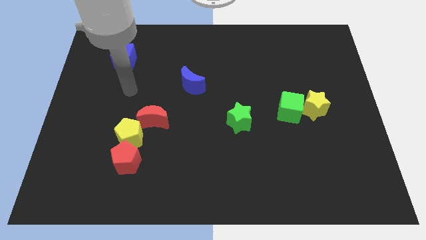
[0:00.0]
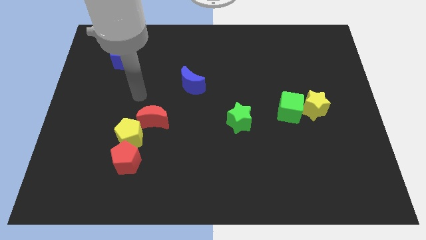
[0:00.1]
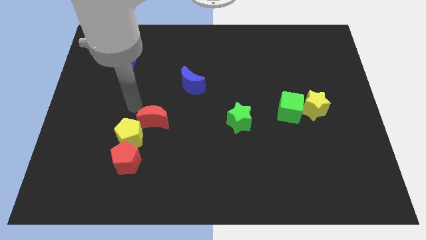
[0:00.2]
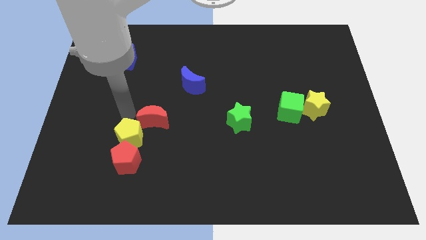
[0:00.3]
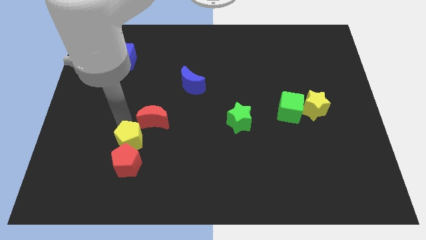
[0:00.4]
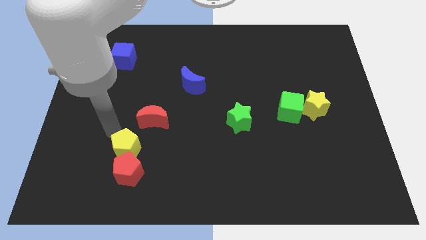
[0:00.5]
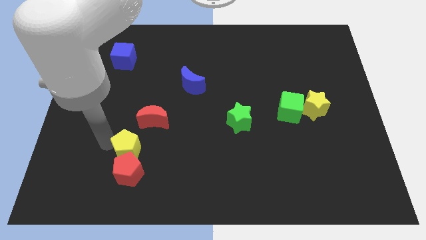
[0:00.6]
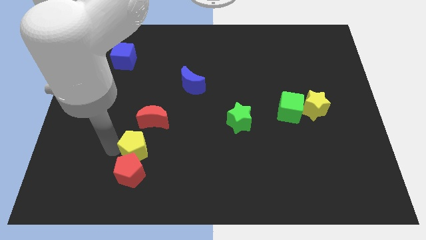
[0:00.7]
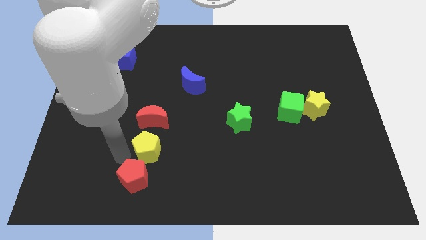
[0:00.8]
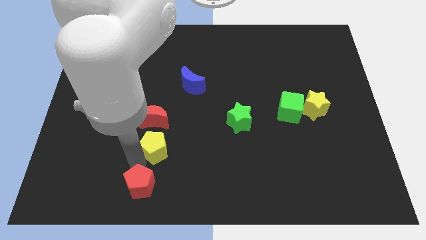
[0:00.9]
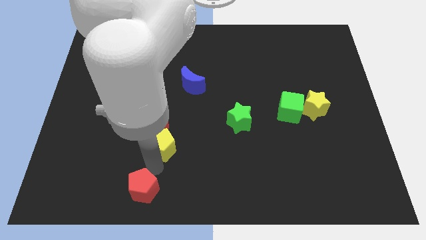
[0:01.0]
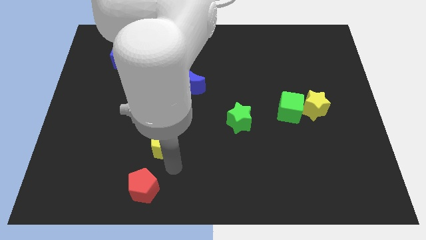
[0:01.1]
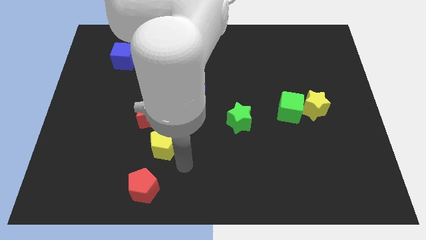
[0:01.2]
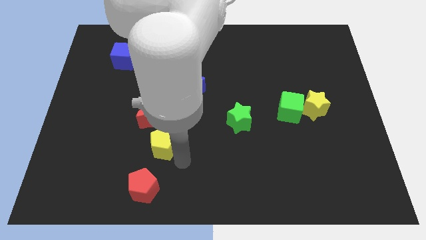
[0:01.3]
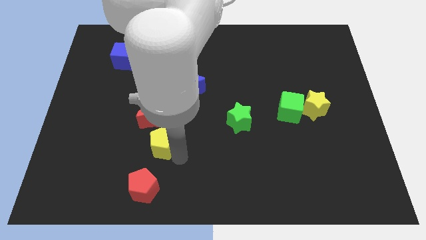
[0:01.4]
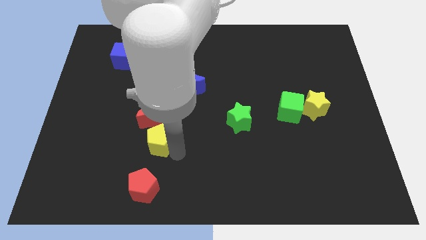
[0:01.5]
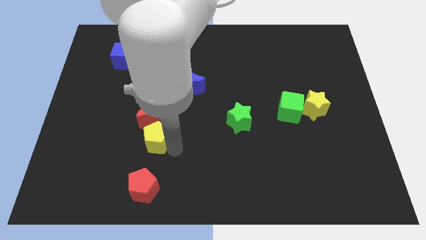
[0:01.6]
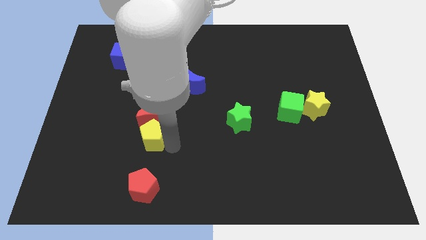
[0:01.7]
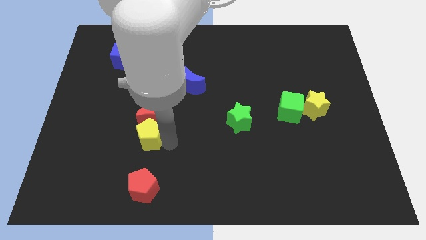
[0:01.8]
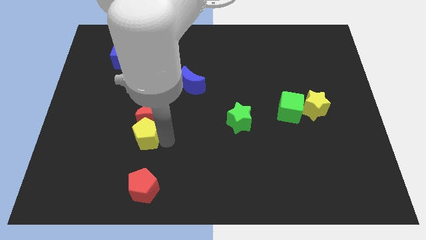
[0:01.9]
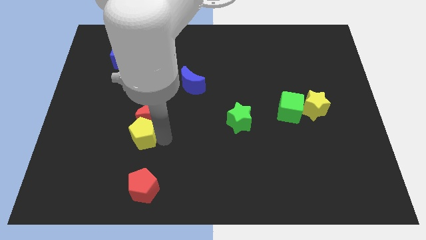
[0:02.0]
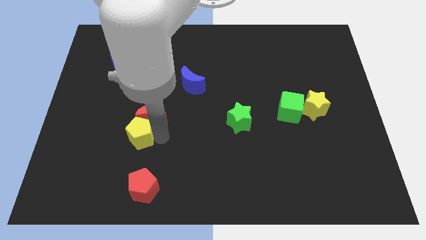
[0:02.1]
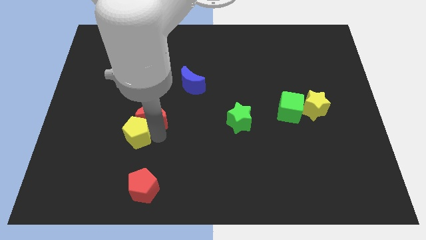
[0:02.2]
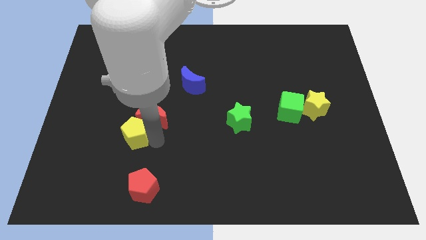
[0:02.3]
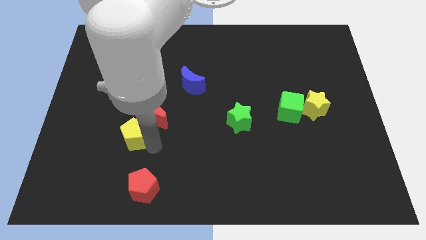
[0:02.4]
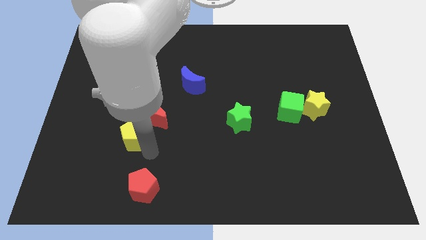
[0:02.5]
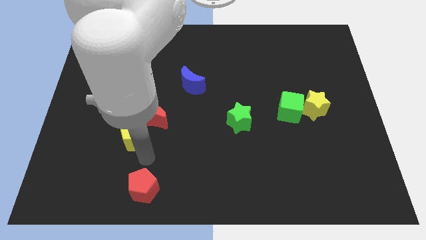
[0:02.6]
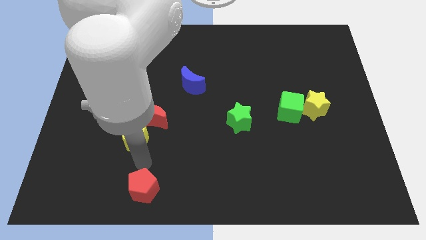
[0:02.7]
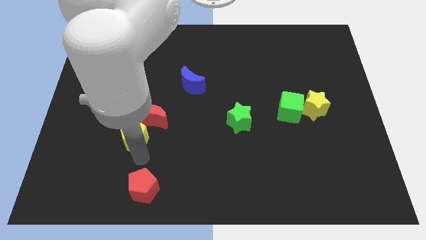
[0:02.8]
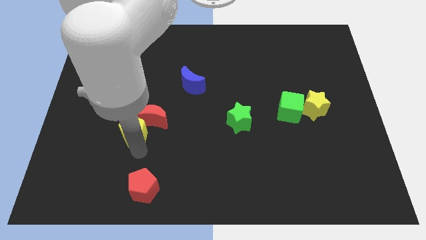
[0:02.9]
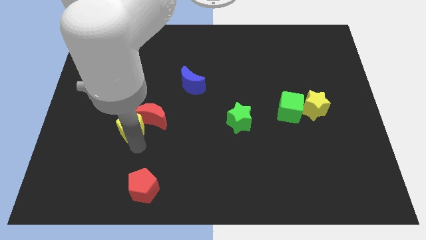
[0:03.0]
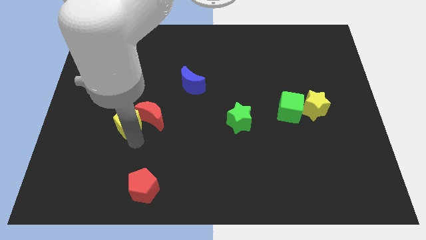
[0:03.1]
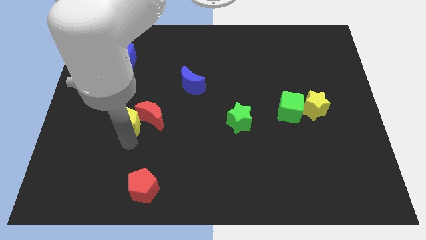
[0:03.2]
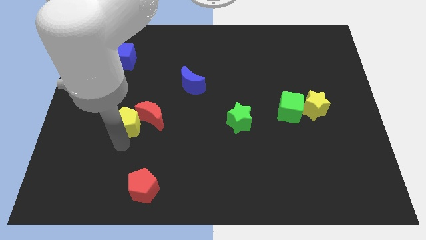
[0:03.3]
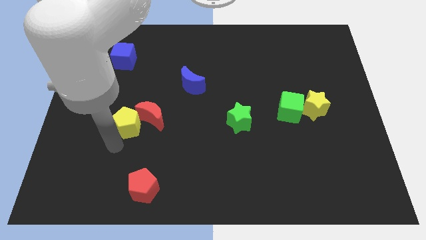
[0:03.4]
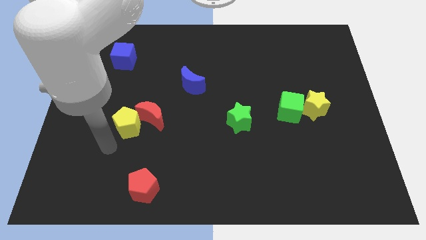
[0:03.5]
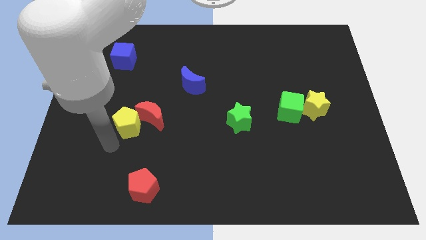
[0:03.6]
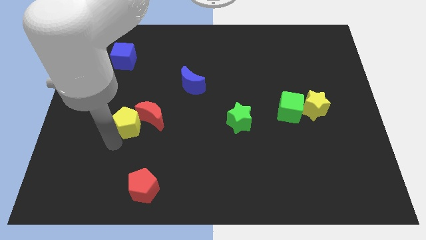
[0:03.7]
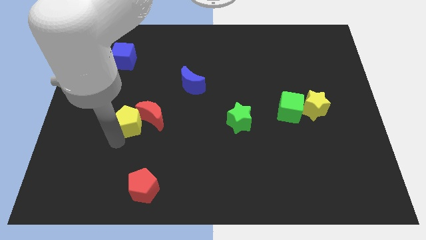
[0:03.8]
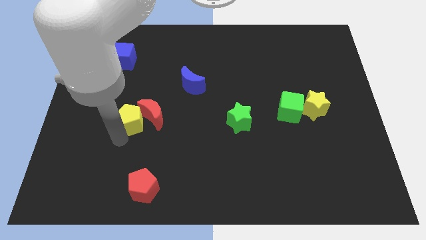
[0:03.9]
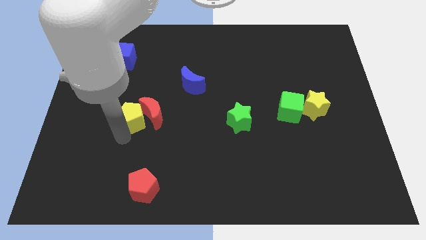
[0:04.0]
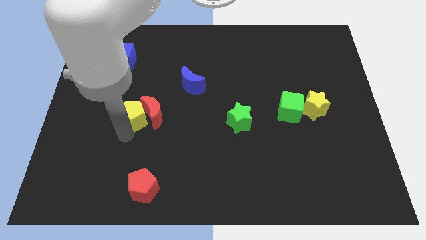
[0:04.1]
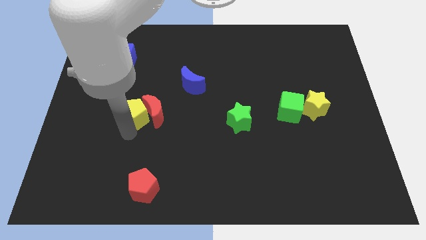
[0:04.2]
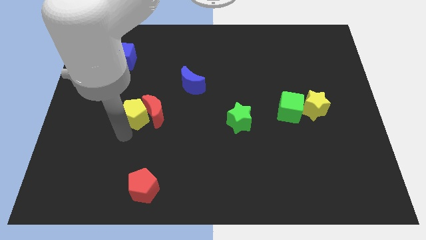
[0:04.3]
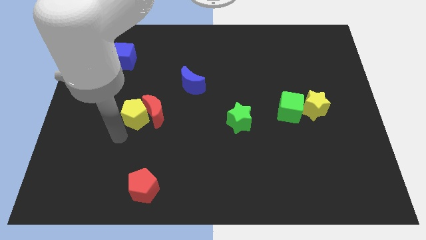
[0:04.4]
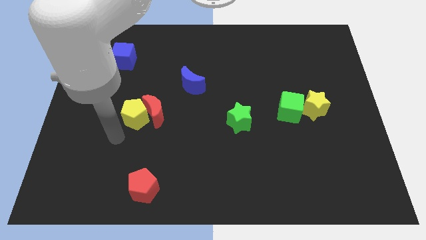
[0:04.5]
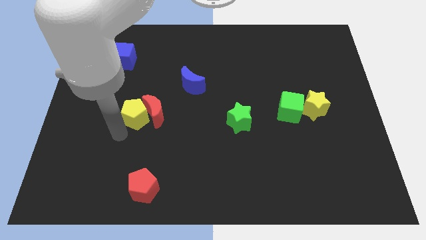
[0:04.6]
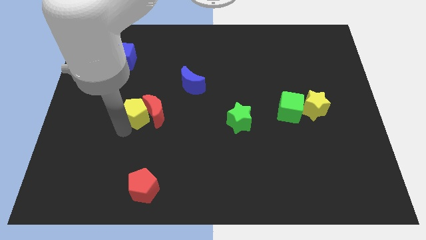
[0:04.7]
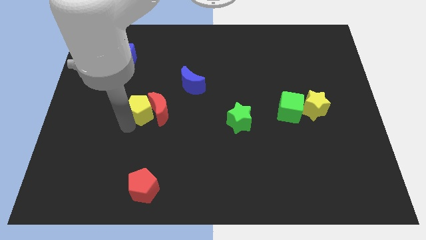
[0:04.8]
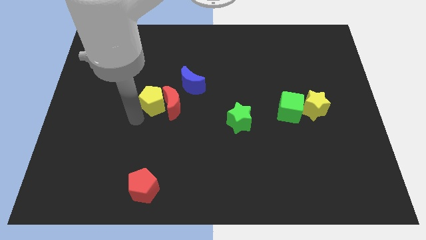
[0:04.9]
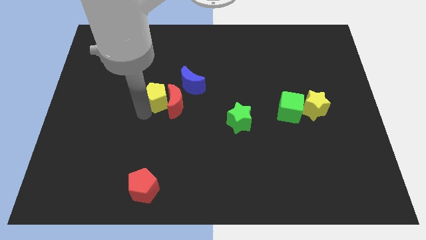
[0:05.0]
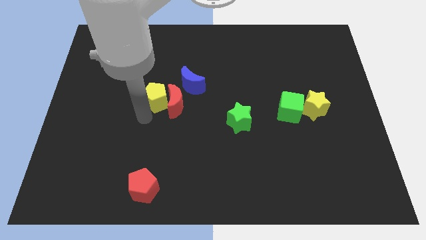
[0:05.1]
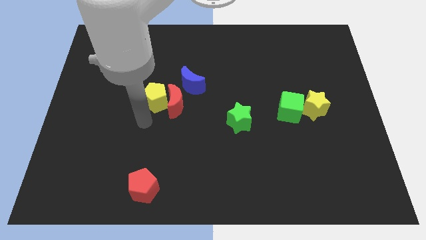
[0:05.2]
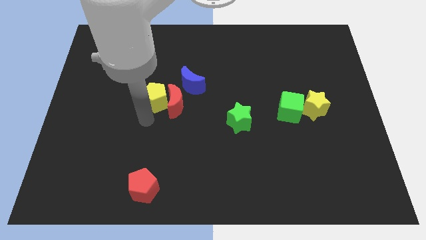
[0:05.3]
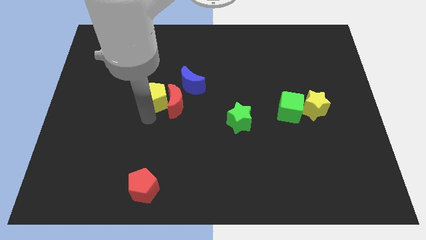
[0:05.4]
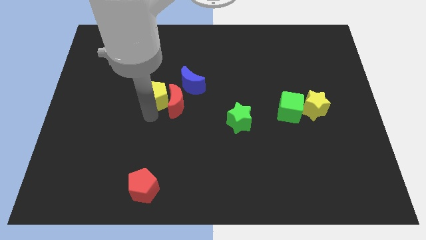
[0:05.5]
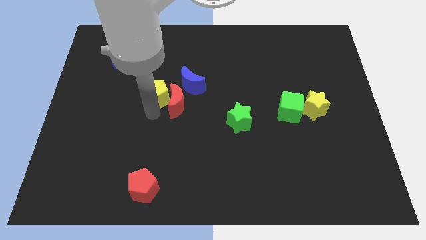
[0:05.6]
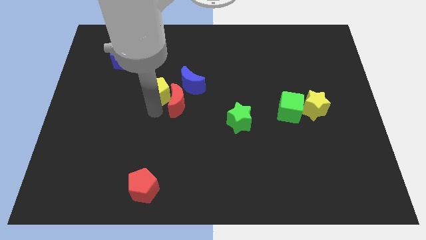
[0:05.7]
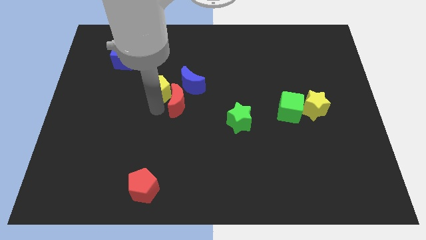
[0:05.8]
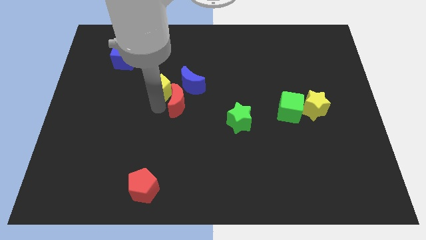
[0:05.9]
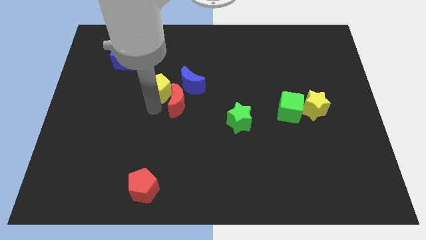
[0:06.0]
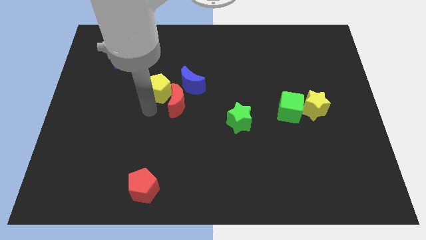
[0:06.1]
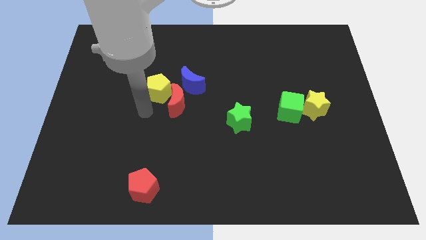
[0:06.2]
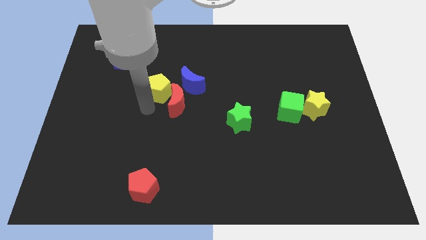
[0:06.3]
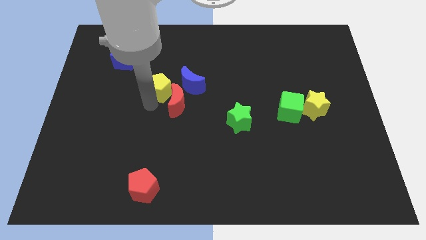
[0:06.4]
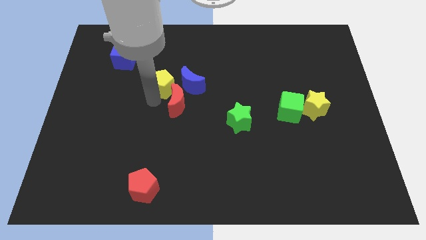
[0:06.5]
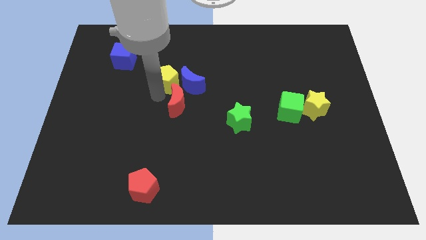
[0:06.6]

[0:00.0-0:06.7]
move the yellow pentagon to the top left side of the blue moon
